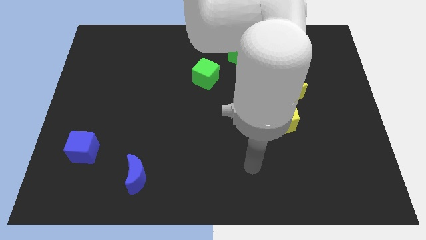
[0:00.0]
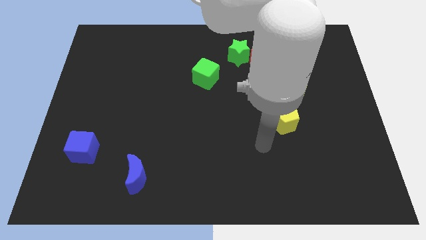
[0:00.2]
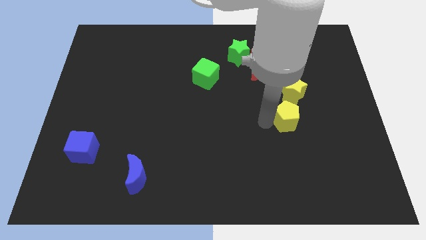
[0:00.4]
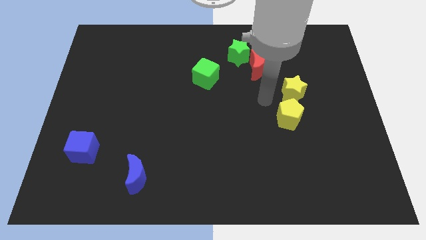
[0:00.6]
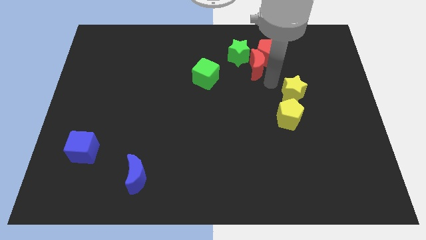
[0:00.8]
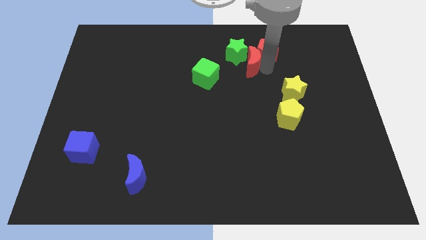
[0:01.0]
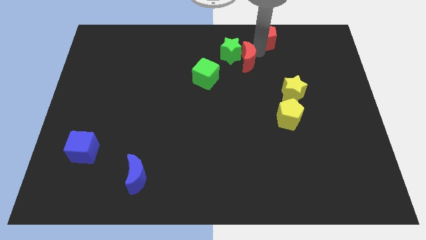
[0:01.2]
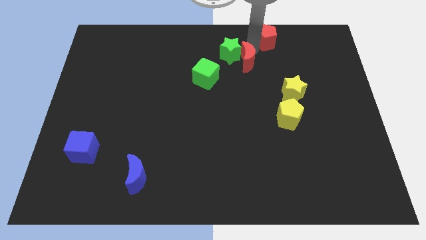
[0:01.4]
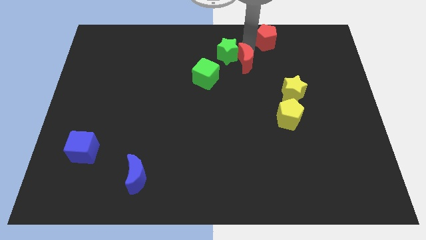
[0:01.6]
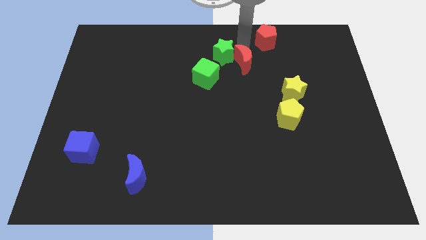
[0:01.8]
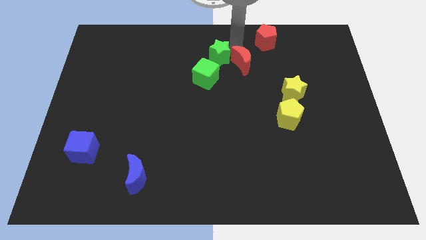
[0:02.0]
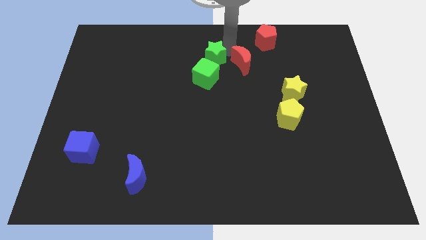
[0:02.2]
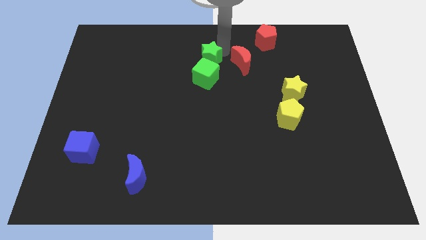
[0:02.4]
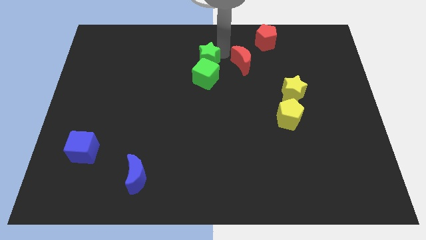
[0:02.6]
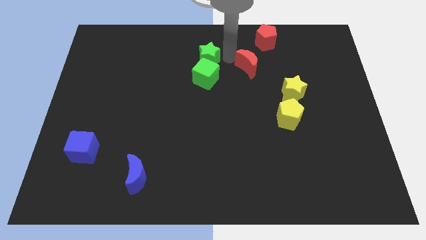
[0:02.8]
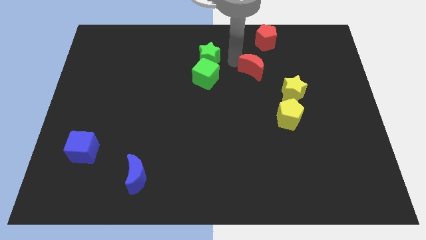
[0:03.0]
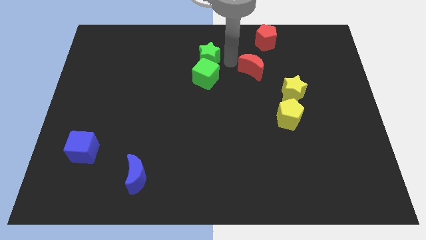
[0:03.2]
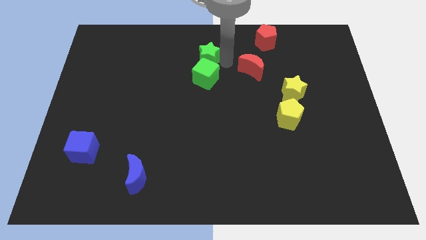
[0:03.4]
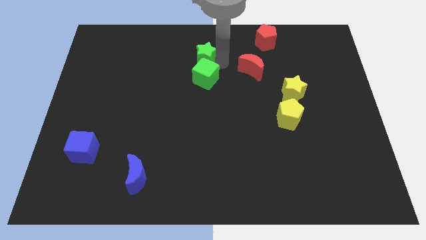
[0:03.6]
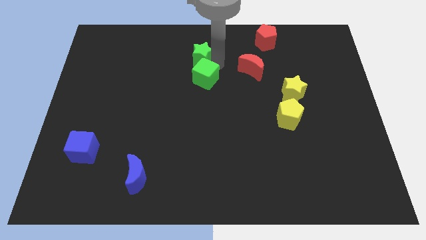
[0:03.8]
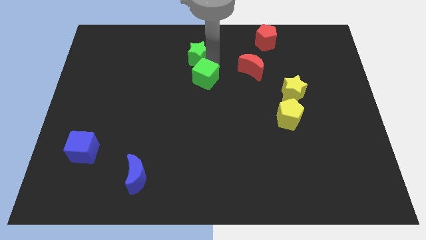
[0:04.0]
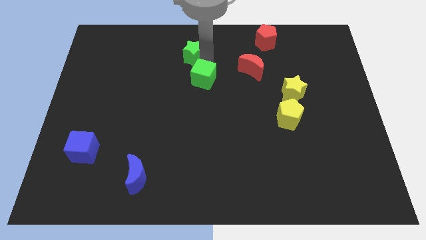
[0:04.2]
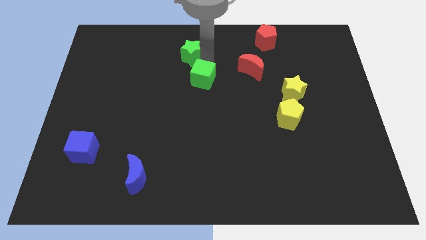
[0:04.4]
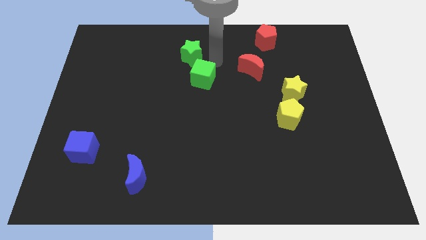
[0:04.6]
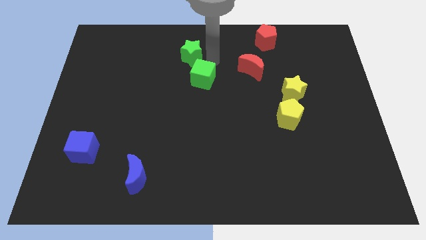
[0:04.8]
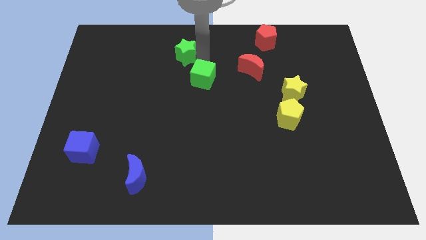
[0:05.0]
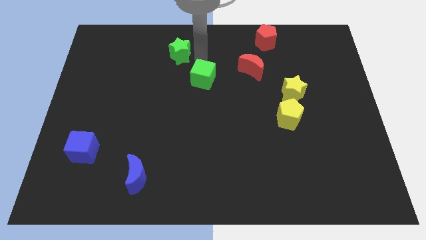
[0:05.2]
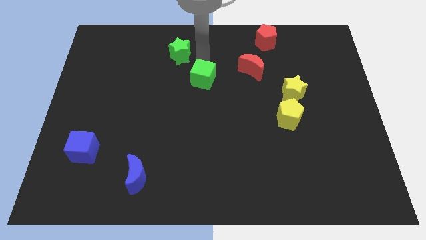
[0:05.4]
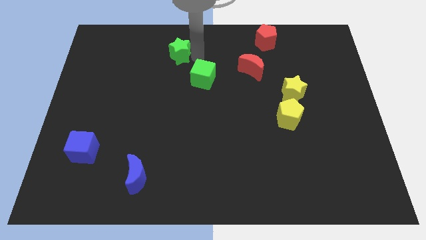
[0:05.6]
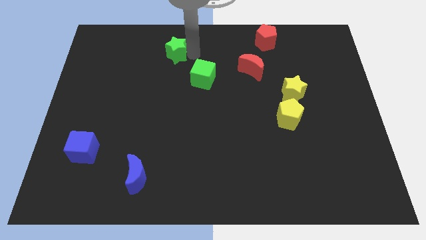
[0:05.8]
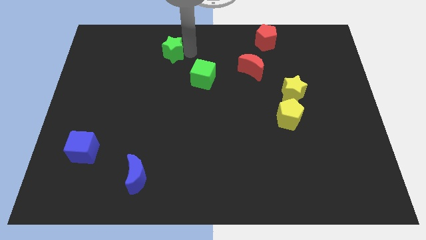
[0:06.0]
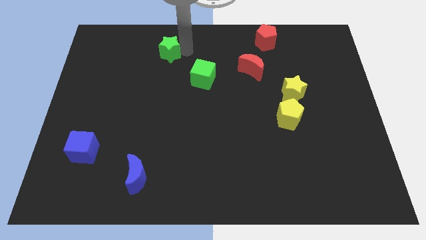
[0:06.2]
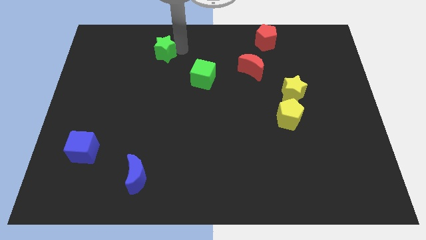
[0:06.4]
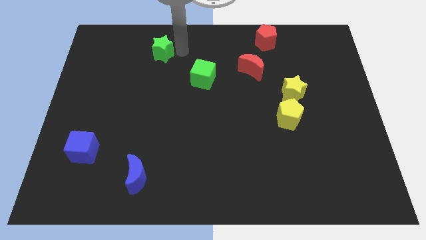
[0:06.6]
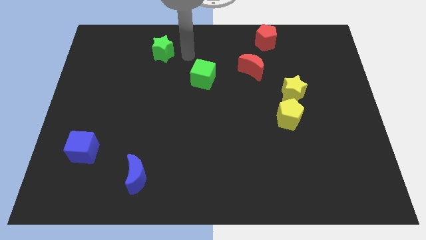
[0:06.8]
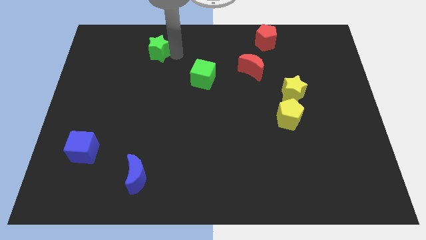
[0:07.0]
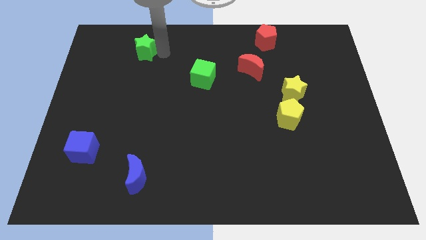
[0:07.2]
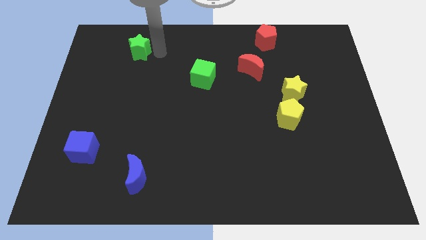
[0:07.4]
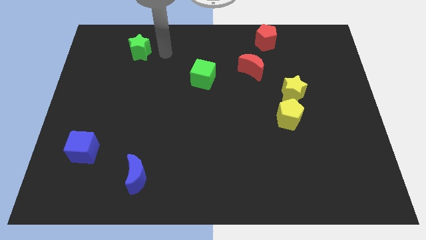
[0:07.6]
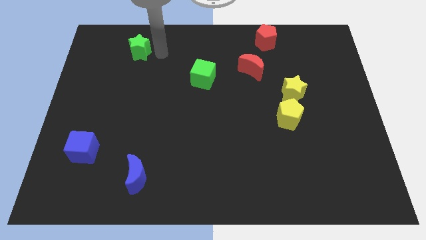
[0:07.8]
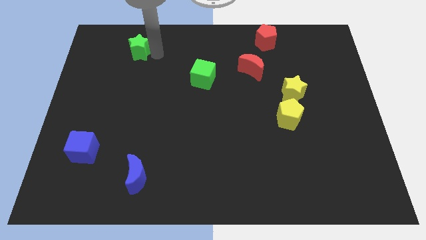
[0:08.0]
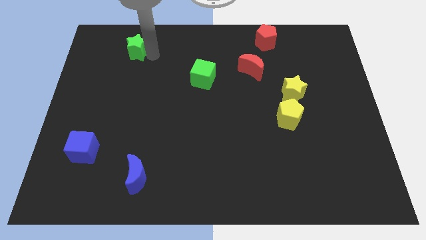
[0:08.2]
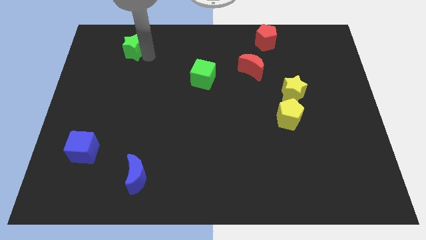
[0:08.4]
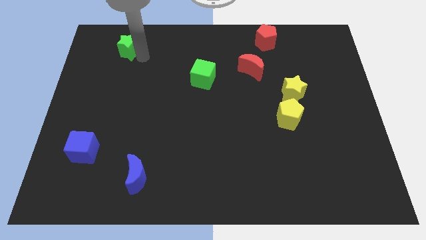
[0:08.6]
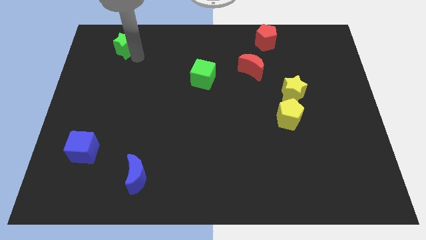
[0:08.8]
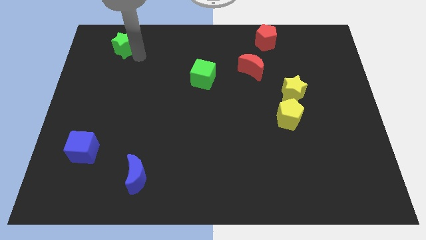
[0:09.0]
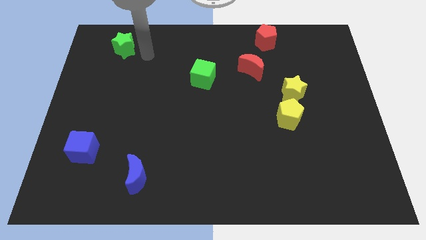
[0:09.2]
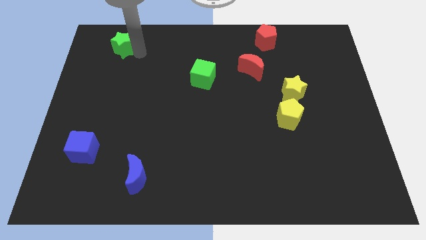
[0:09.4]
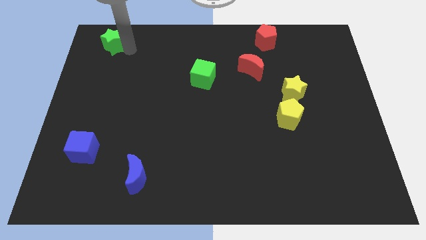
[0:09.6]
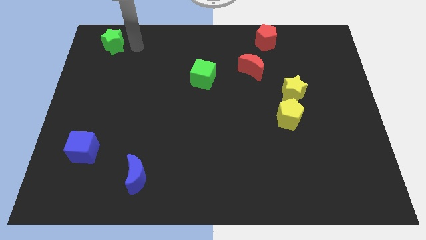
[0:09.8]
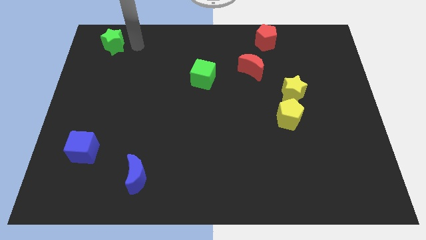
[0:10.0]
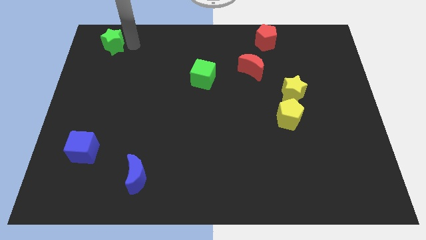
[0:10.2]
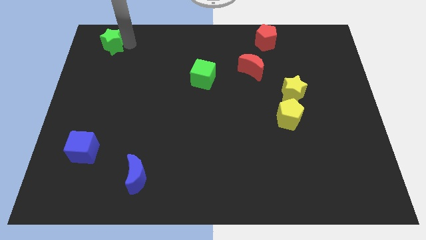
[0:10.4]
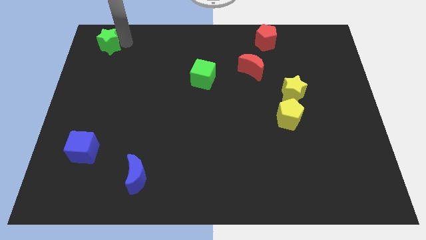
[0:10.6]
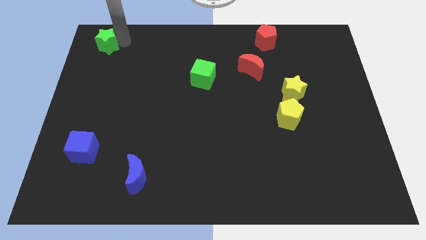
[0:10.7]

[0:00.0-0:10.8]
push the green star to the top left corner
